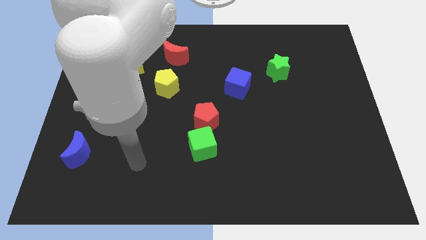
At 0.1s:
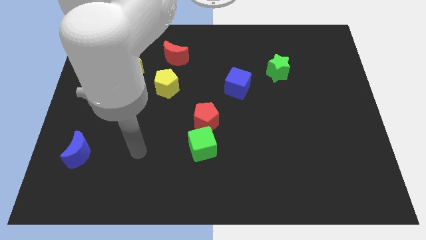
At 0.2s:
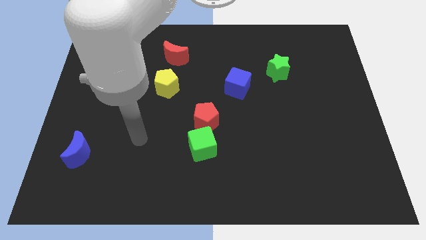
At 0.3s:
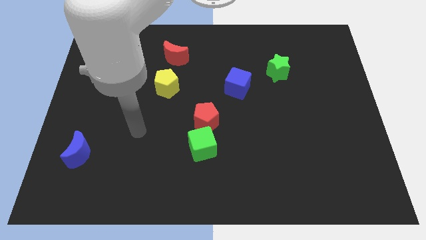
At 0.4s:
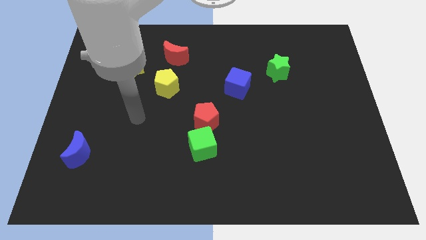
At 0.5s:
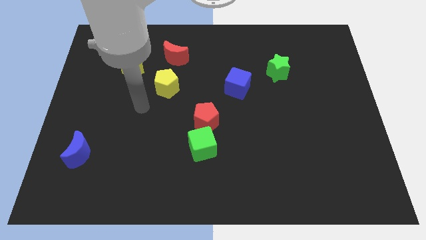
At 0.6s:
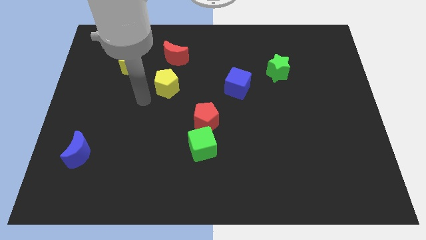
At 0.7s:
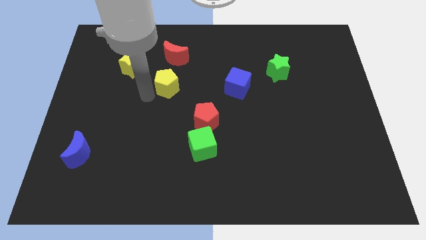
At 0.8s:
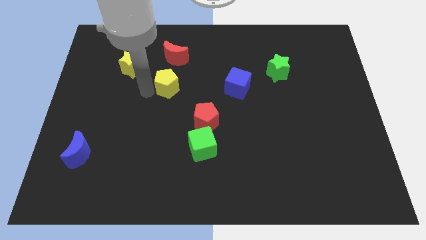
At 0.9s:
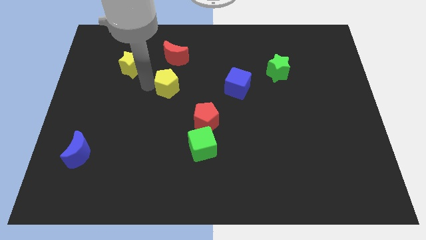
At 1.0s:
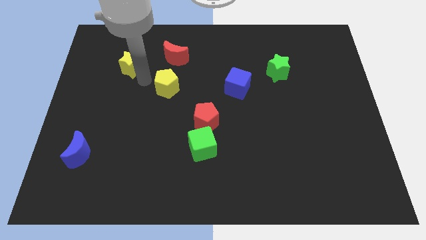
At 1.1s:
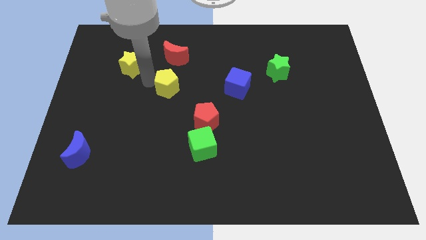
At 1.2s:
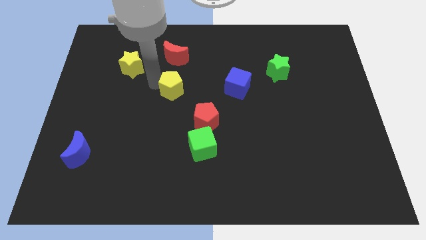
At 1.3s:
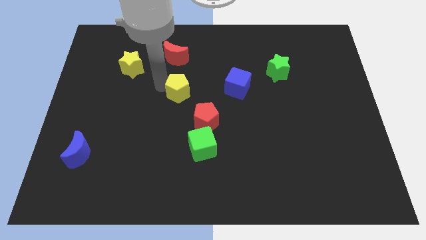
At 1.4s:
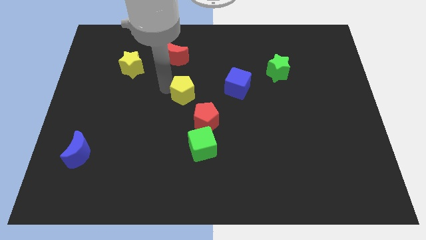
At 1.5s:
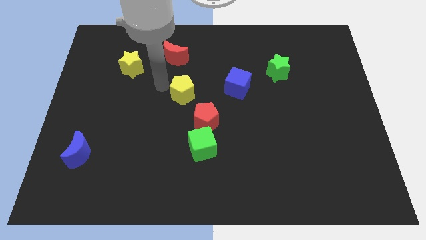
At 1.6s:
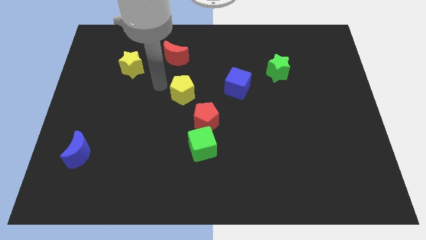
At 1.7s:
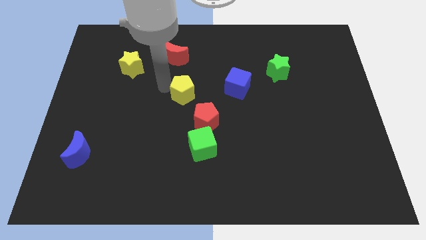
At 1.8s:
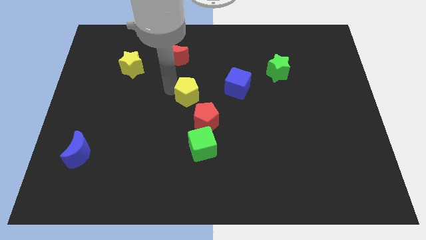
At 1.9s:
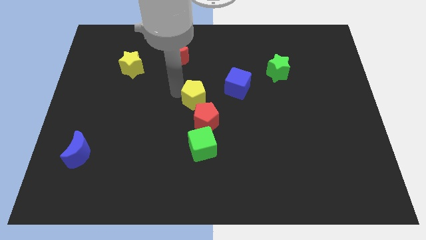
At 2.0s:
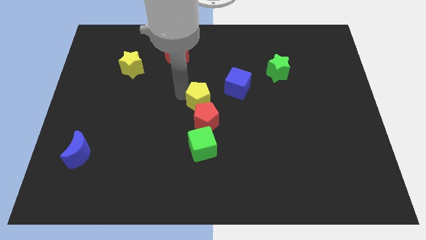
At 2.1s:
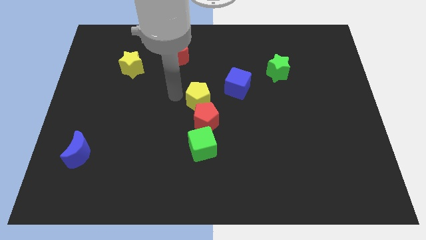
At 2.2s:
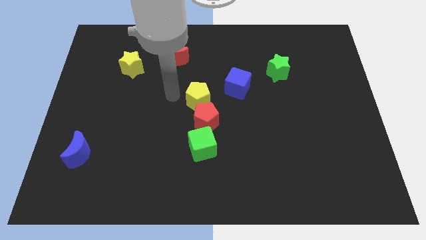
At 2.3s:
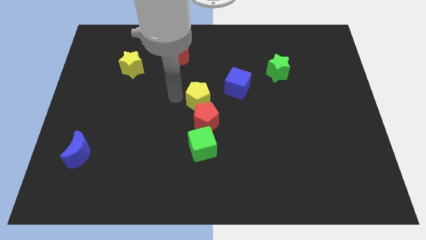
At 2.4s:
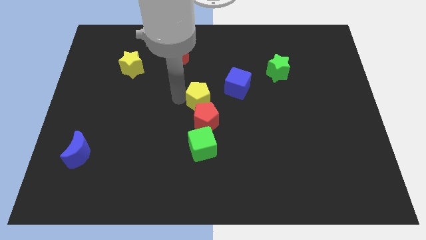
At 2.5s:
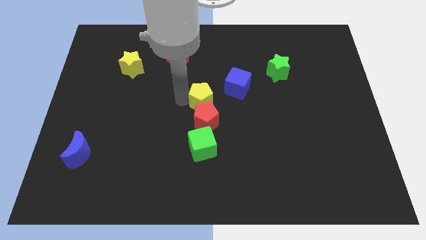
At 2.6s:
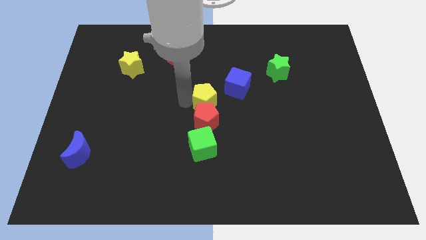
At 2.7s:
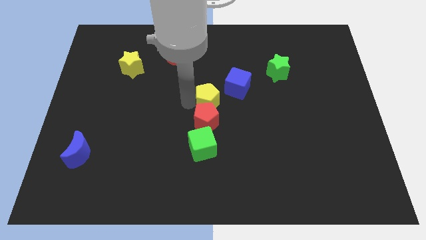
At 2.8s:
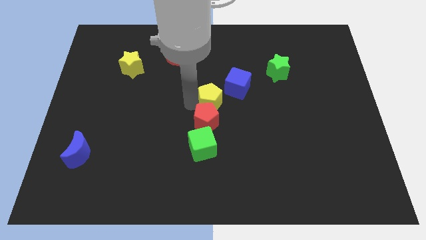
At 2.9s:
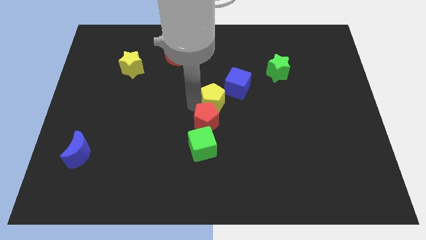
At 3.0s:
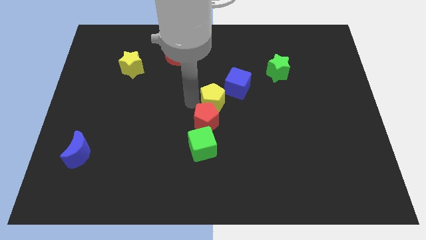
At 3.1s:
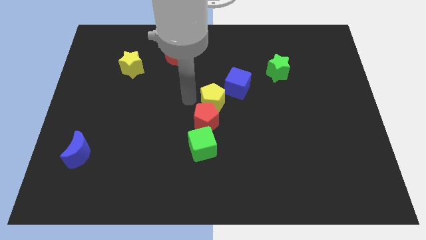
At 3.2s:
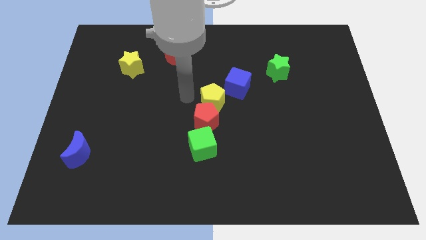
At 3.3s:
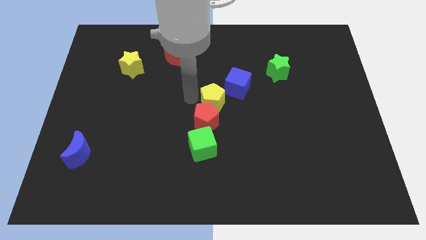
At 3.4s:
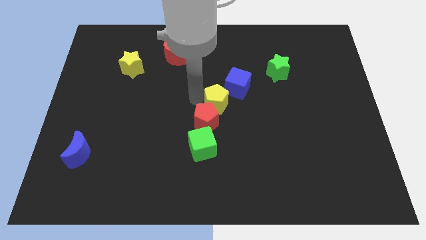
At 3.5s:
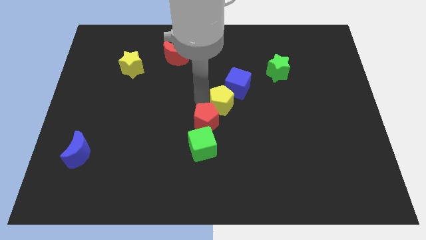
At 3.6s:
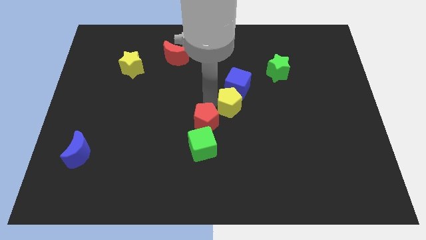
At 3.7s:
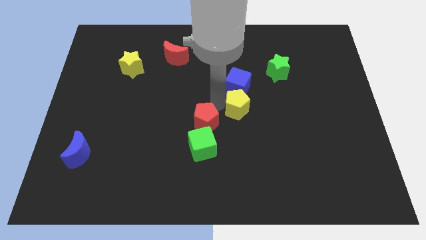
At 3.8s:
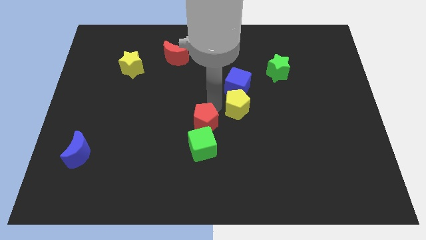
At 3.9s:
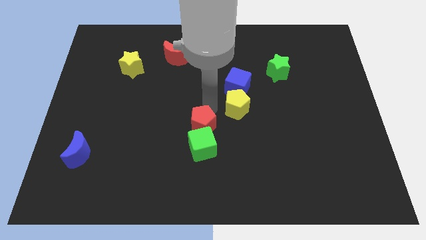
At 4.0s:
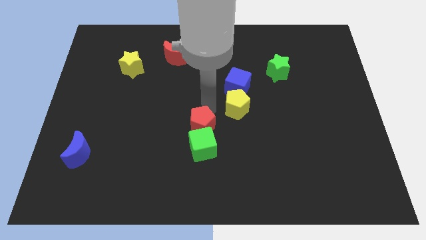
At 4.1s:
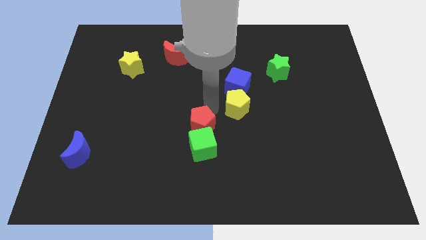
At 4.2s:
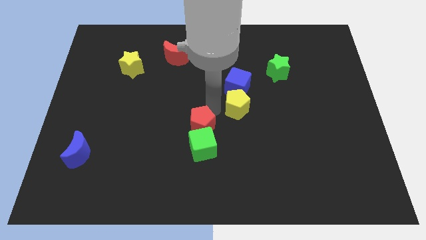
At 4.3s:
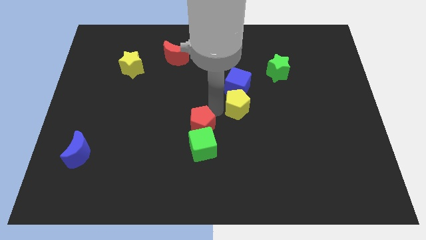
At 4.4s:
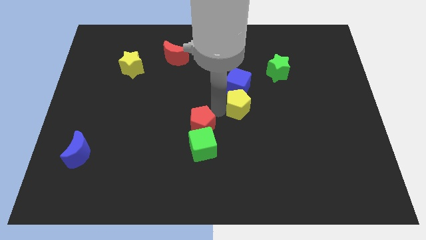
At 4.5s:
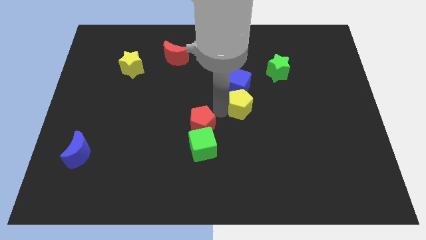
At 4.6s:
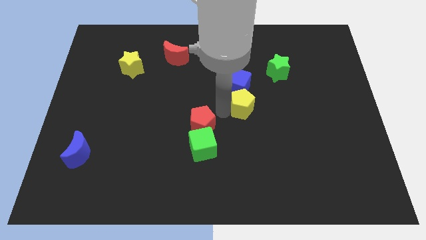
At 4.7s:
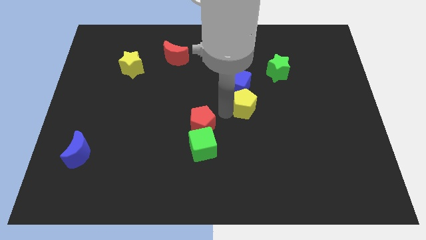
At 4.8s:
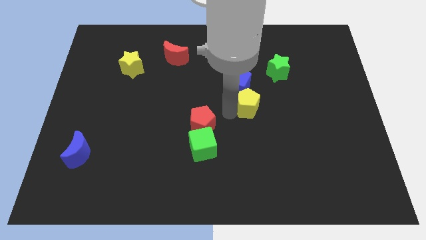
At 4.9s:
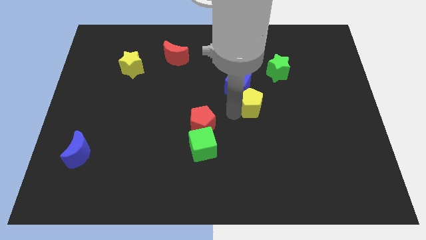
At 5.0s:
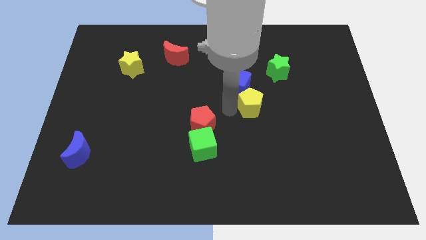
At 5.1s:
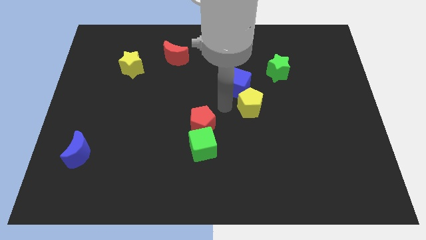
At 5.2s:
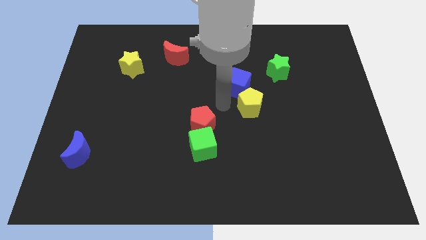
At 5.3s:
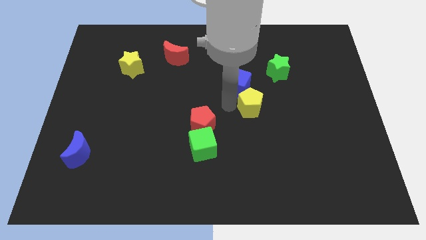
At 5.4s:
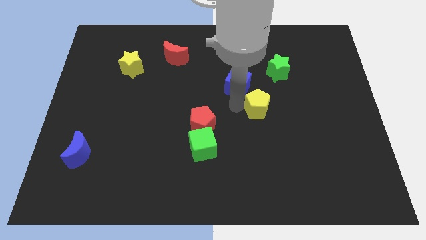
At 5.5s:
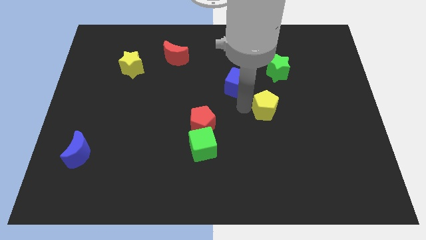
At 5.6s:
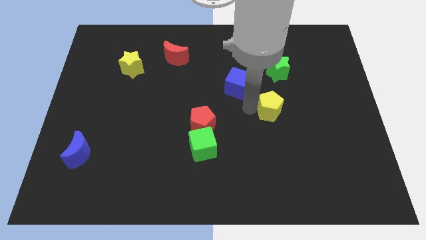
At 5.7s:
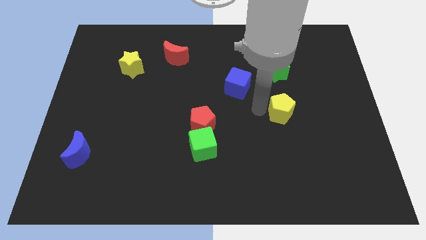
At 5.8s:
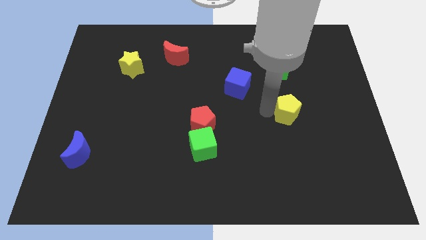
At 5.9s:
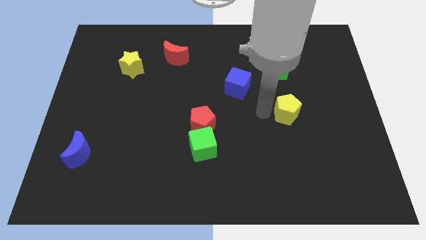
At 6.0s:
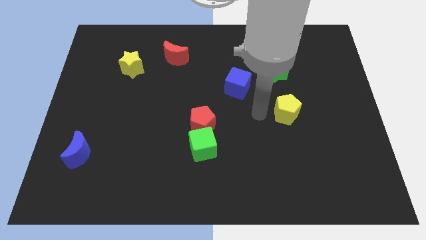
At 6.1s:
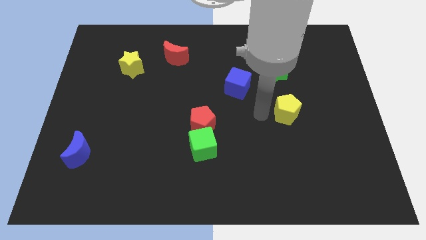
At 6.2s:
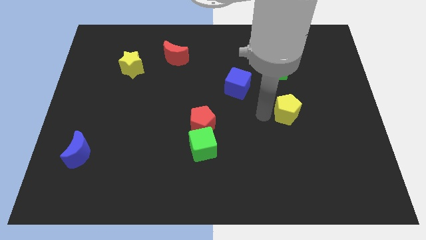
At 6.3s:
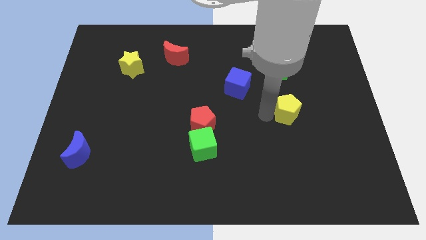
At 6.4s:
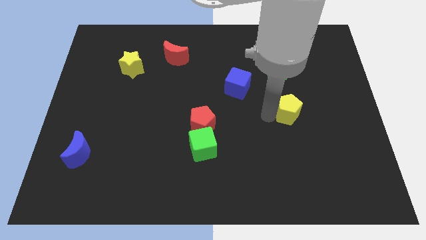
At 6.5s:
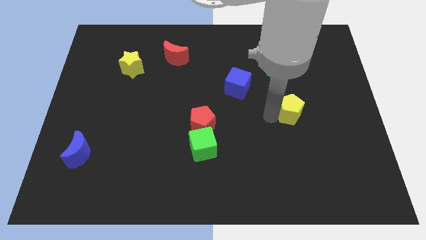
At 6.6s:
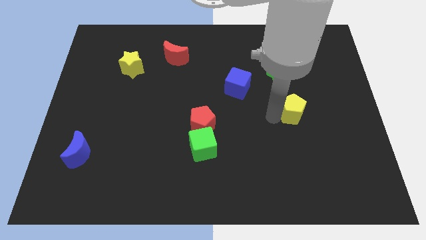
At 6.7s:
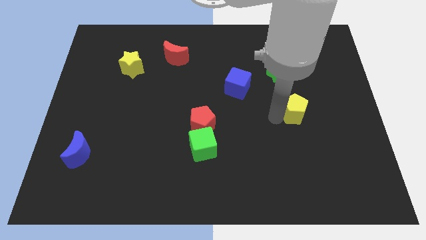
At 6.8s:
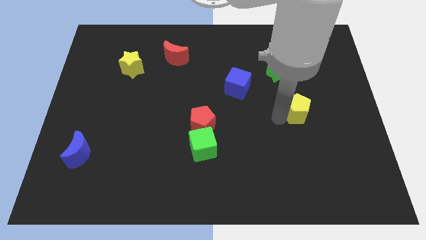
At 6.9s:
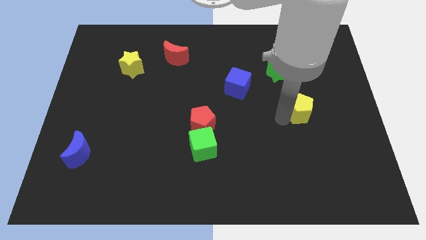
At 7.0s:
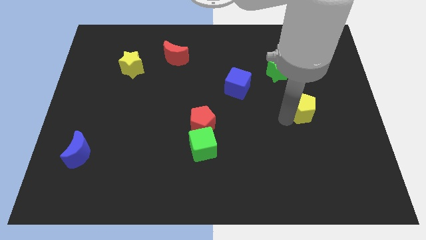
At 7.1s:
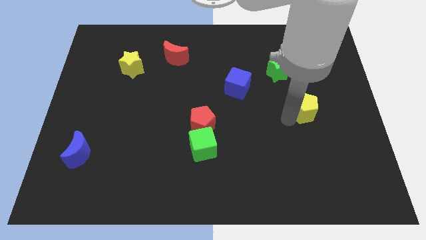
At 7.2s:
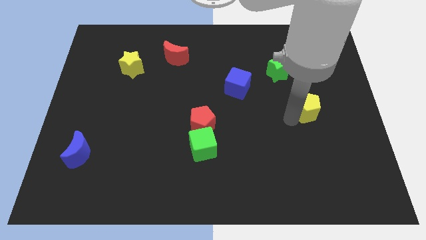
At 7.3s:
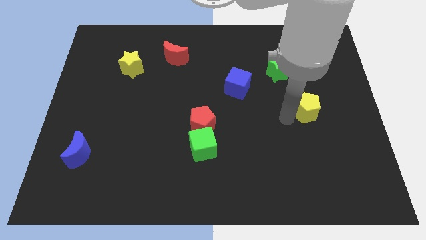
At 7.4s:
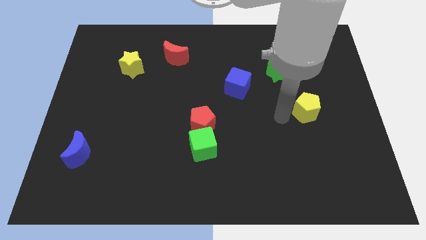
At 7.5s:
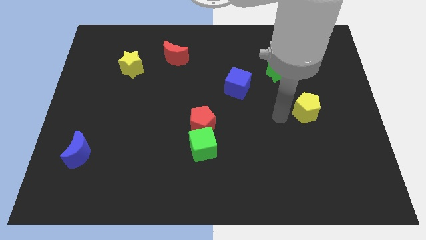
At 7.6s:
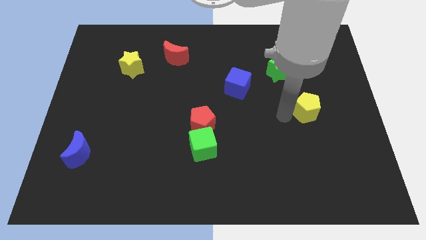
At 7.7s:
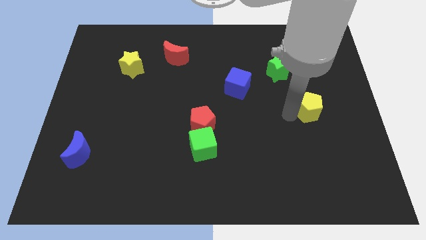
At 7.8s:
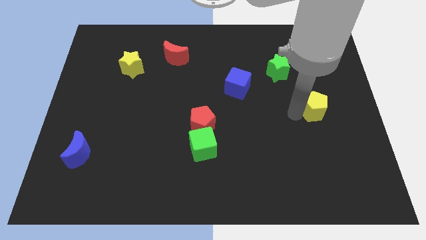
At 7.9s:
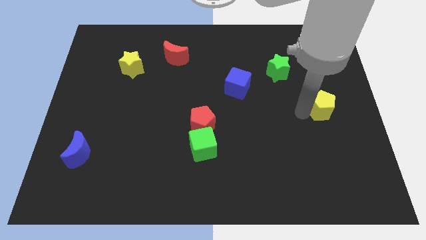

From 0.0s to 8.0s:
slide the yellow pentagon to the center right

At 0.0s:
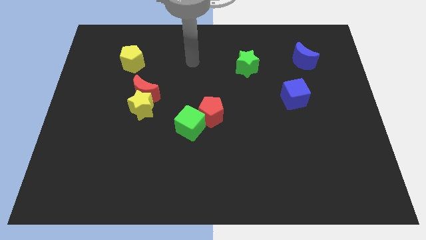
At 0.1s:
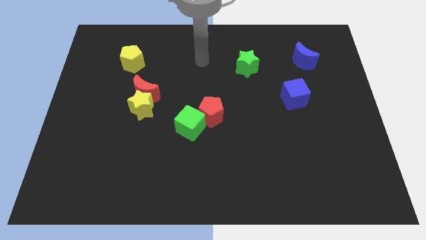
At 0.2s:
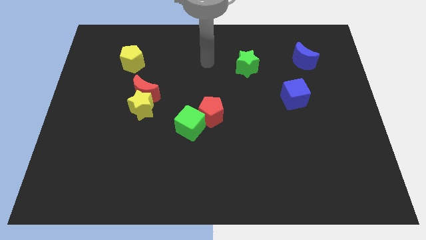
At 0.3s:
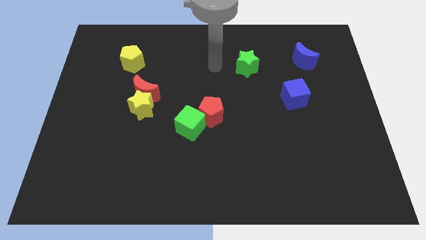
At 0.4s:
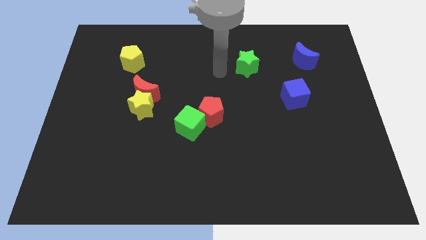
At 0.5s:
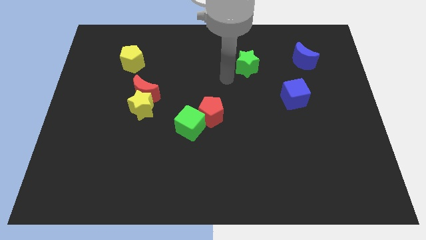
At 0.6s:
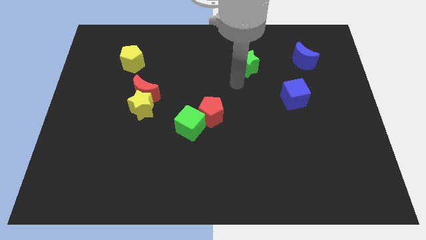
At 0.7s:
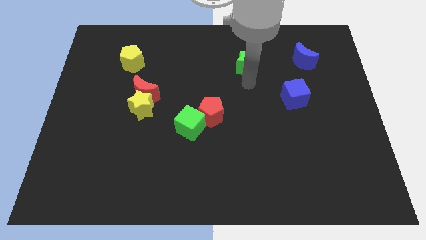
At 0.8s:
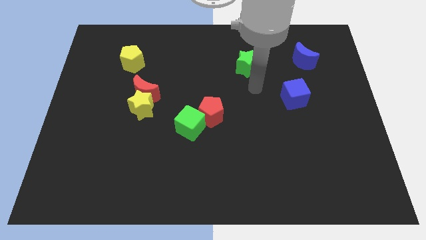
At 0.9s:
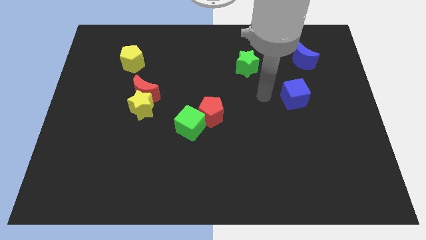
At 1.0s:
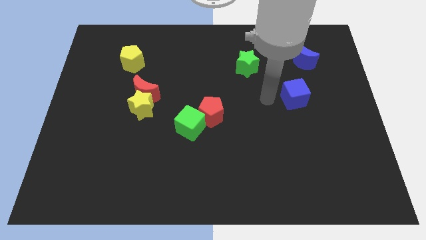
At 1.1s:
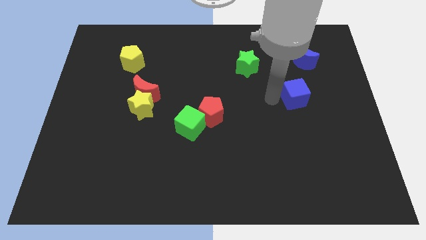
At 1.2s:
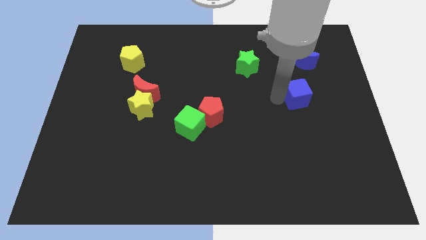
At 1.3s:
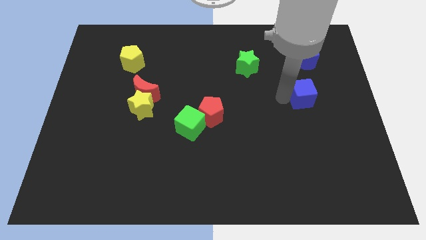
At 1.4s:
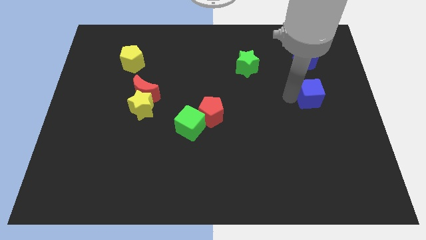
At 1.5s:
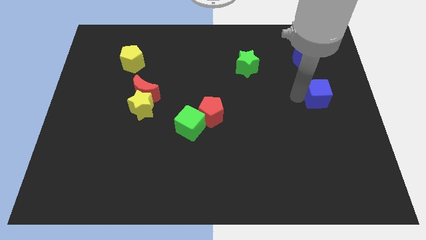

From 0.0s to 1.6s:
slide the blue cube to the right side of the board
